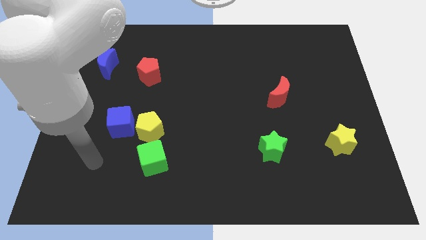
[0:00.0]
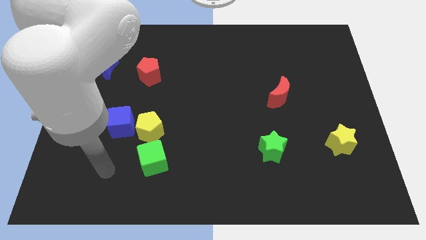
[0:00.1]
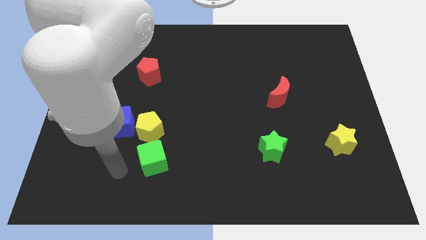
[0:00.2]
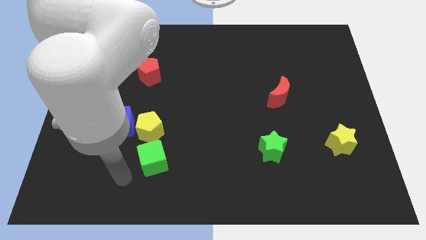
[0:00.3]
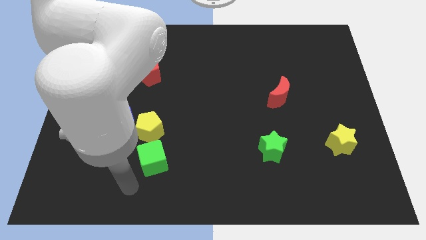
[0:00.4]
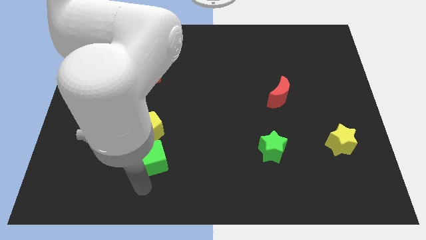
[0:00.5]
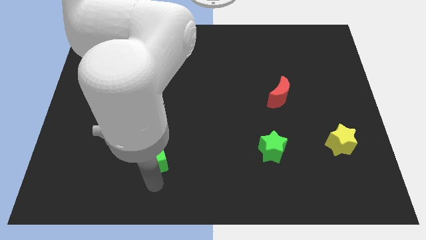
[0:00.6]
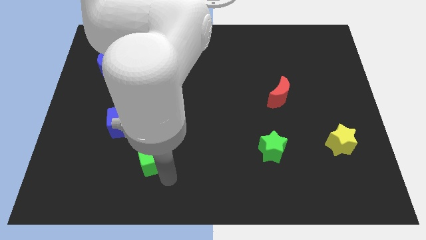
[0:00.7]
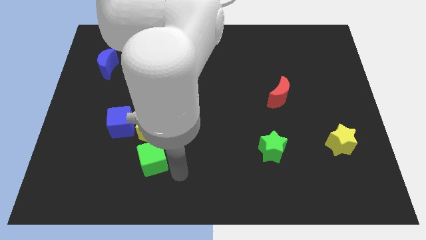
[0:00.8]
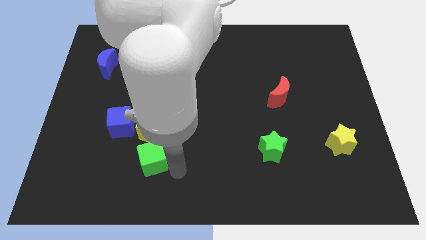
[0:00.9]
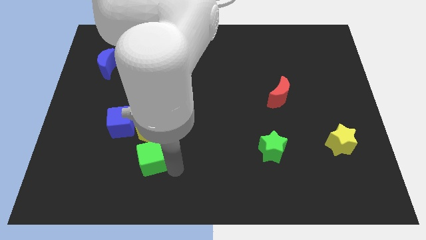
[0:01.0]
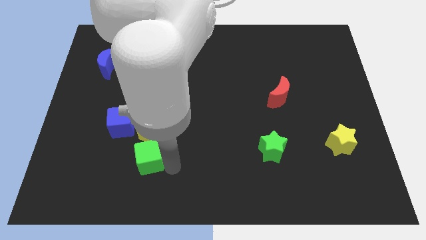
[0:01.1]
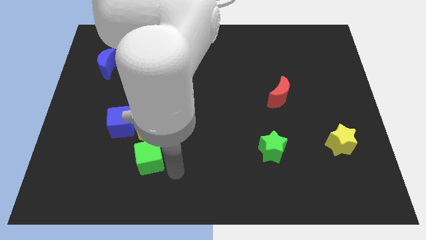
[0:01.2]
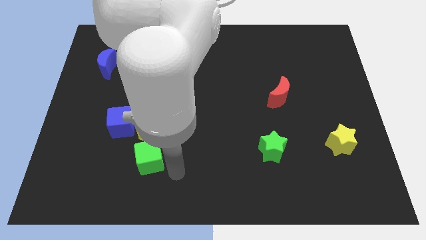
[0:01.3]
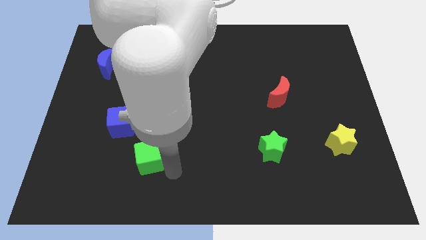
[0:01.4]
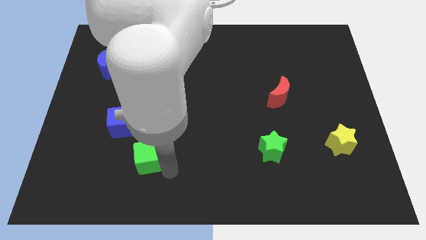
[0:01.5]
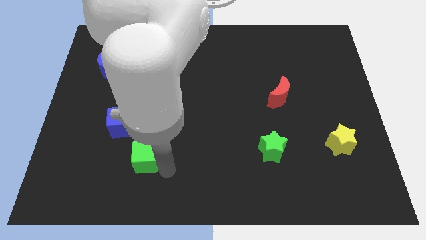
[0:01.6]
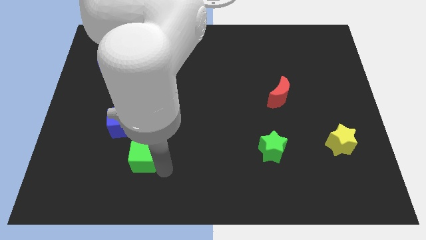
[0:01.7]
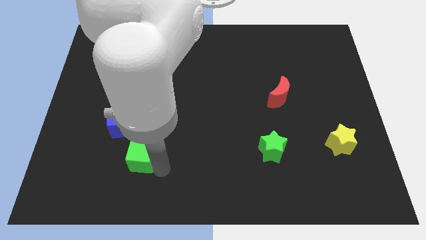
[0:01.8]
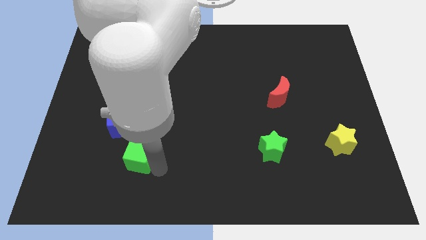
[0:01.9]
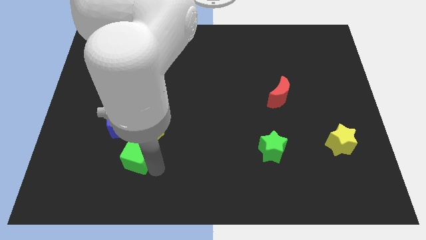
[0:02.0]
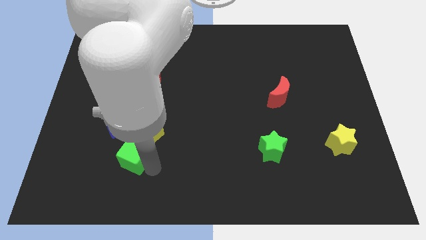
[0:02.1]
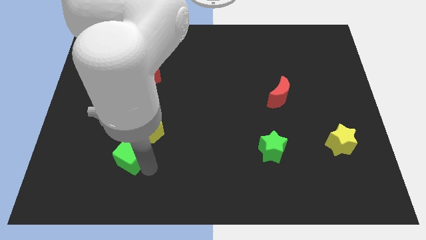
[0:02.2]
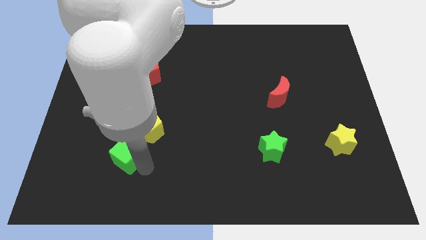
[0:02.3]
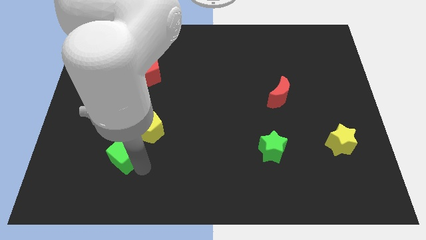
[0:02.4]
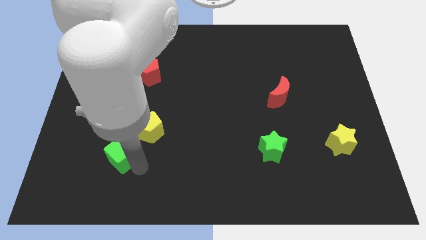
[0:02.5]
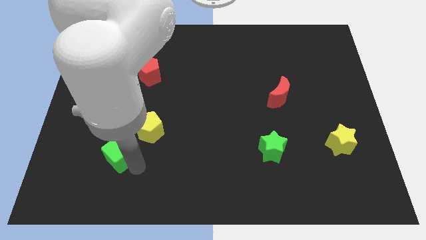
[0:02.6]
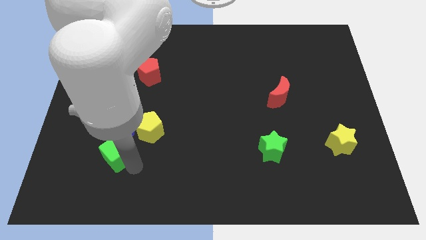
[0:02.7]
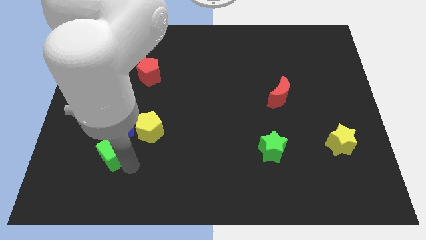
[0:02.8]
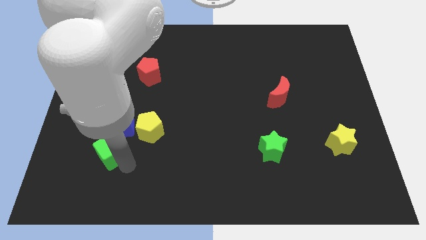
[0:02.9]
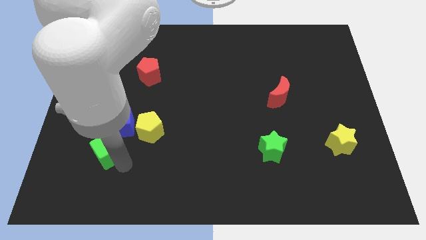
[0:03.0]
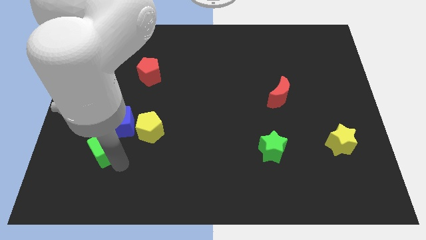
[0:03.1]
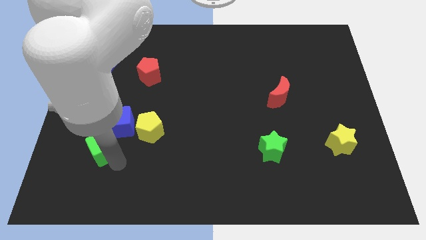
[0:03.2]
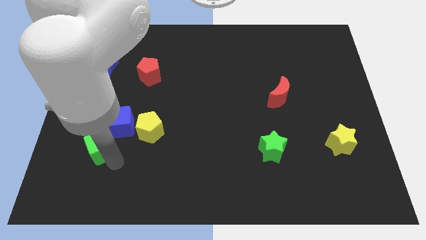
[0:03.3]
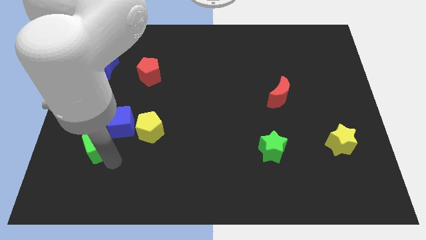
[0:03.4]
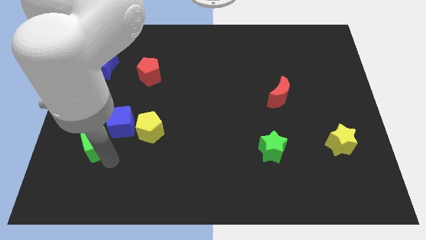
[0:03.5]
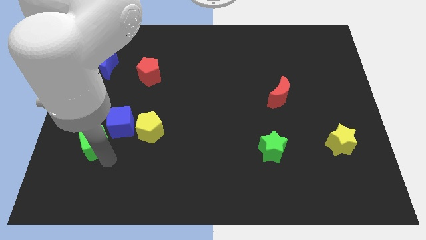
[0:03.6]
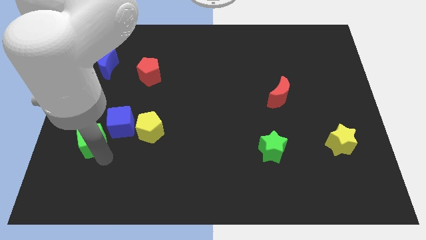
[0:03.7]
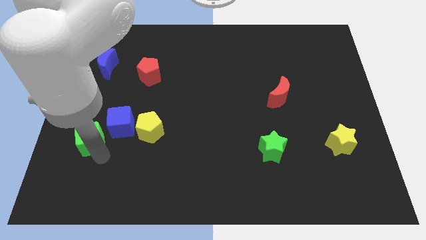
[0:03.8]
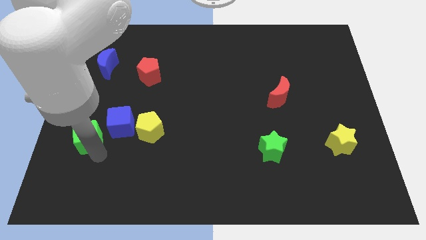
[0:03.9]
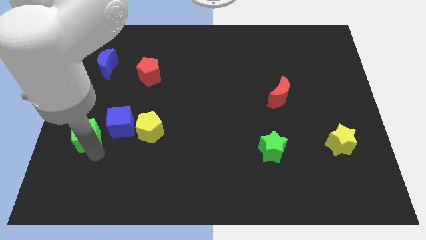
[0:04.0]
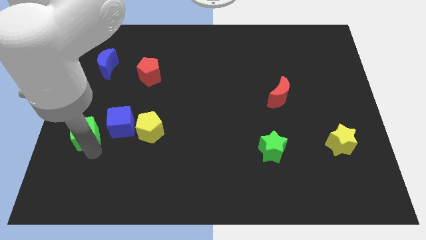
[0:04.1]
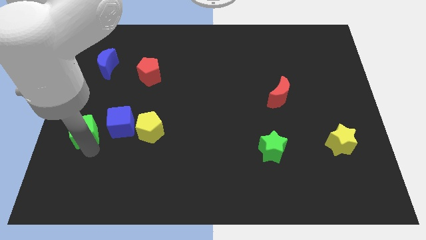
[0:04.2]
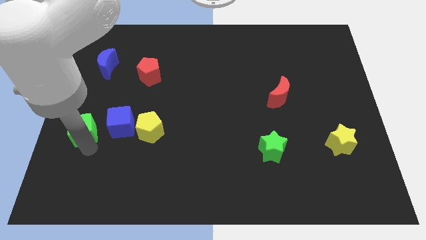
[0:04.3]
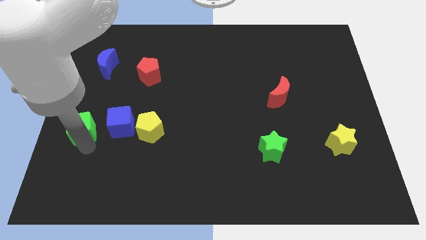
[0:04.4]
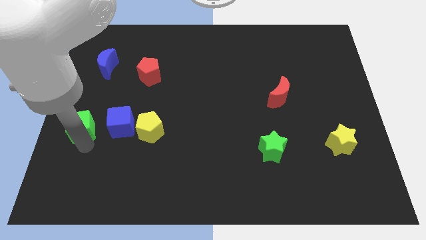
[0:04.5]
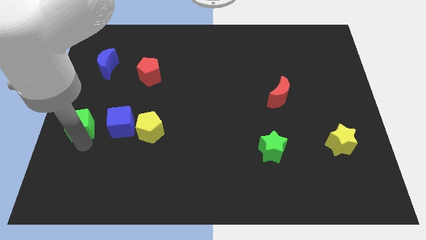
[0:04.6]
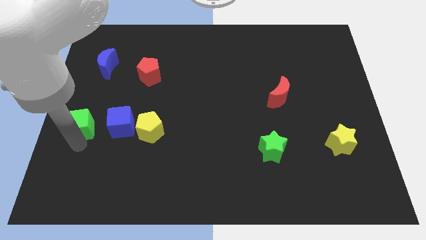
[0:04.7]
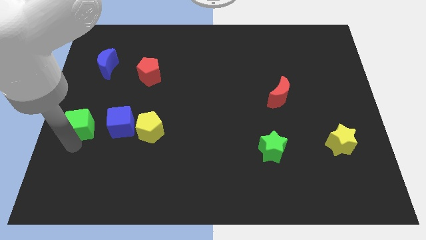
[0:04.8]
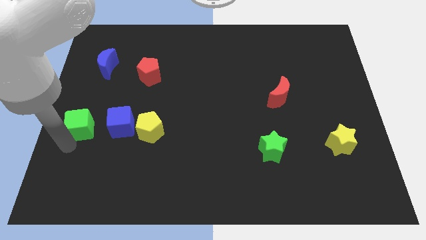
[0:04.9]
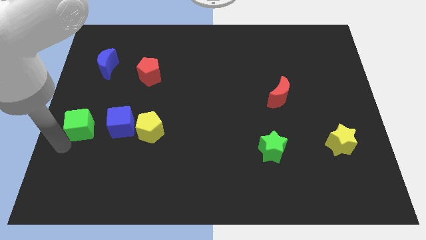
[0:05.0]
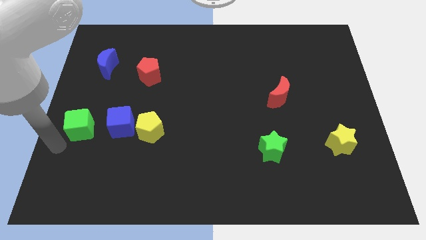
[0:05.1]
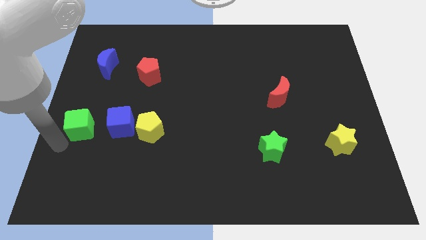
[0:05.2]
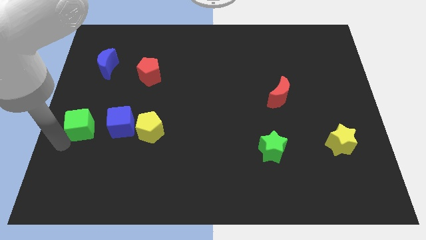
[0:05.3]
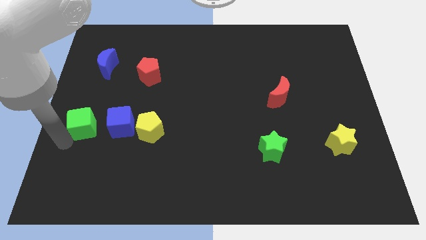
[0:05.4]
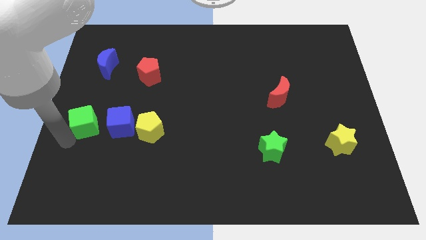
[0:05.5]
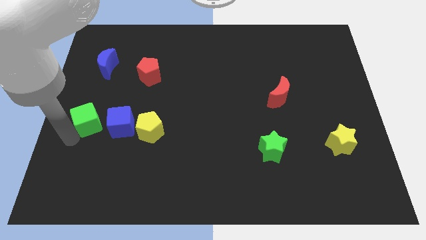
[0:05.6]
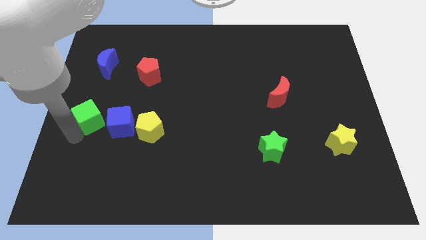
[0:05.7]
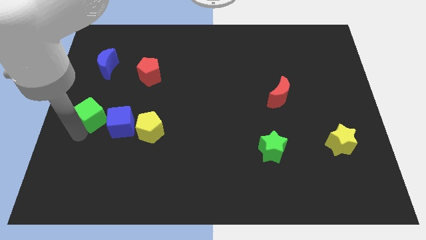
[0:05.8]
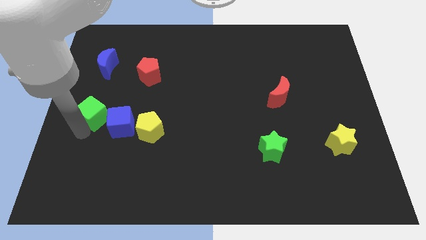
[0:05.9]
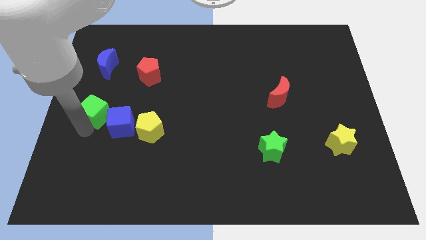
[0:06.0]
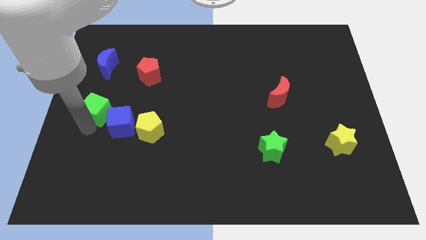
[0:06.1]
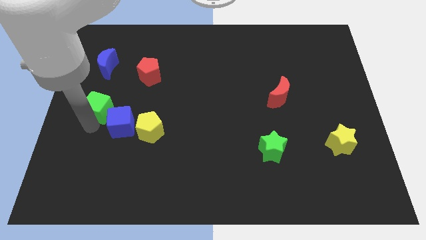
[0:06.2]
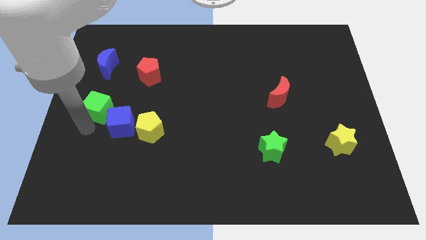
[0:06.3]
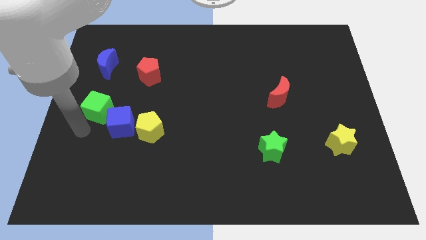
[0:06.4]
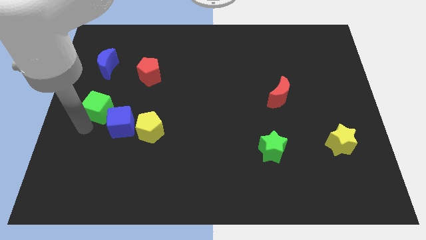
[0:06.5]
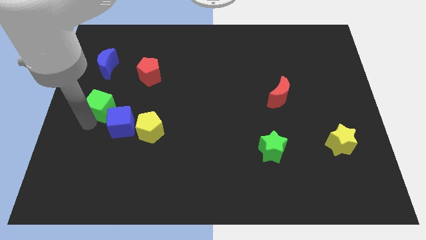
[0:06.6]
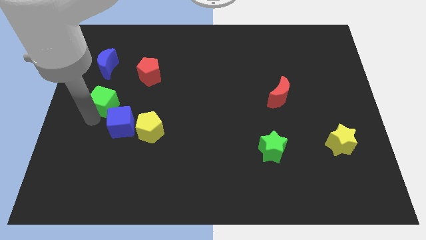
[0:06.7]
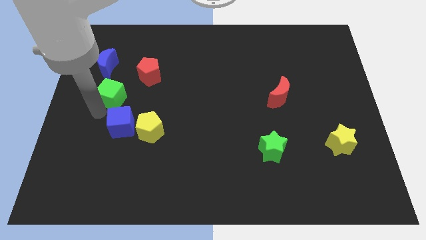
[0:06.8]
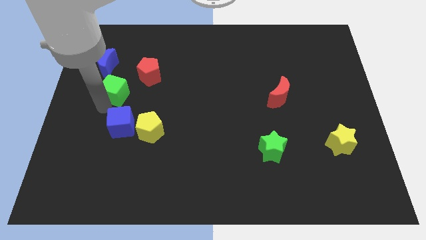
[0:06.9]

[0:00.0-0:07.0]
slide the green cube to the bottom right side of the blue moon
